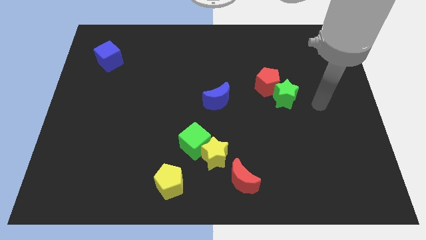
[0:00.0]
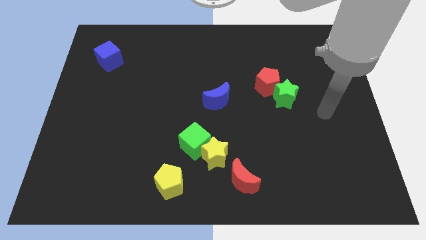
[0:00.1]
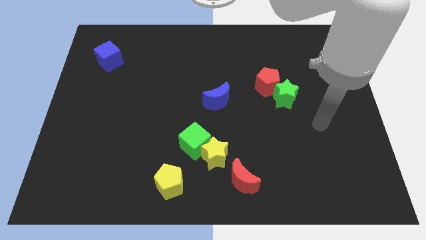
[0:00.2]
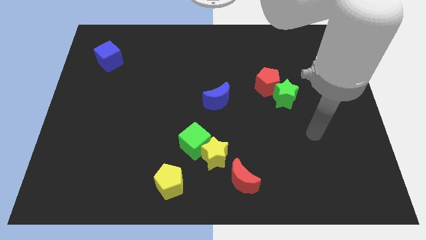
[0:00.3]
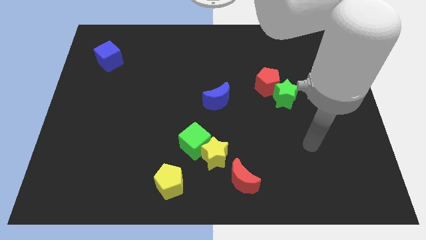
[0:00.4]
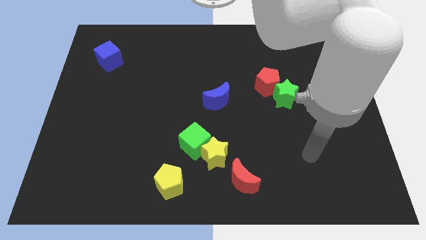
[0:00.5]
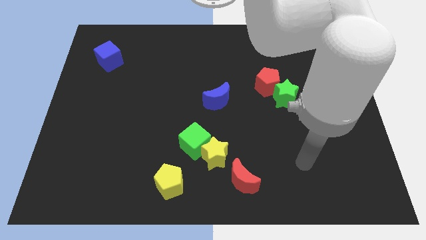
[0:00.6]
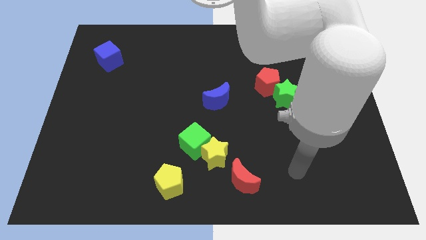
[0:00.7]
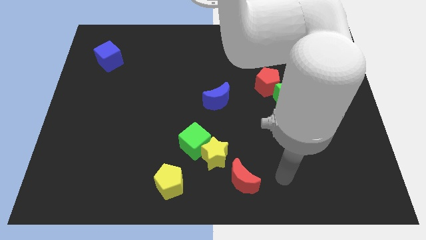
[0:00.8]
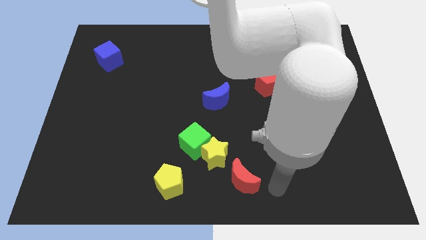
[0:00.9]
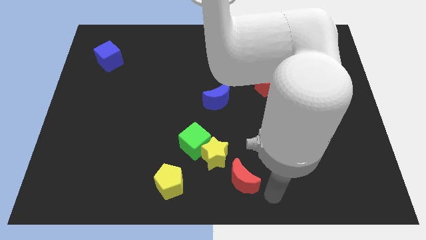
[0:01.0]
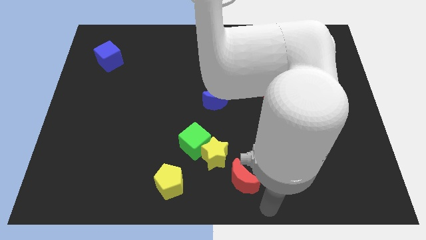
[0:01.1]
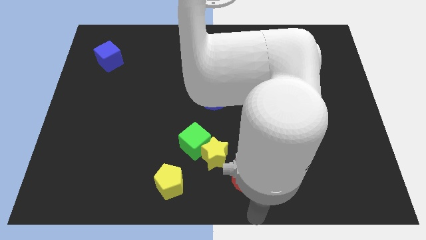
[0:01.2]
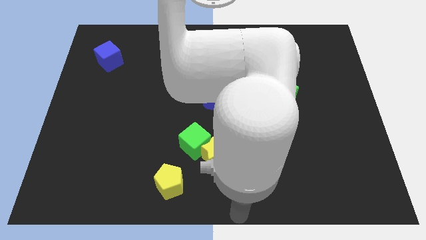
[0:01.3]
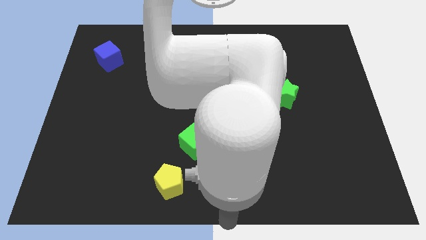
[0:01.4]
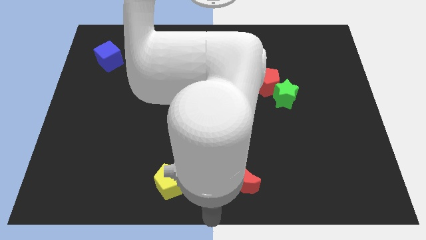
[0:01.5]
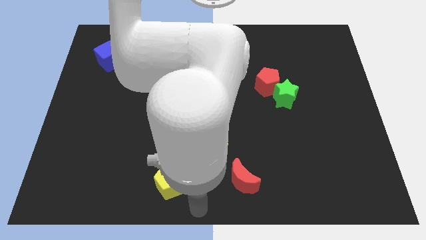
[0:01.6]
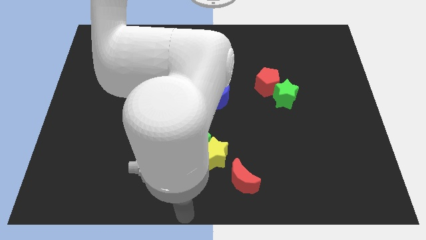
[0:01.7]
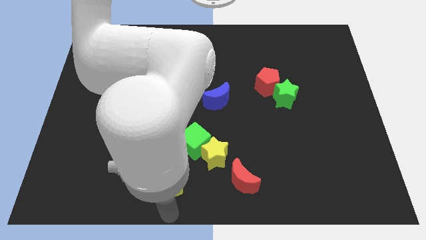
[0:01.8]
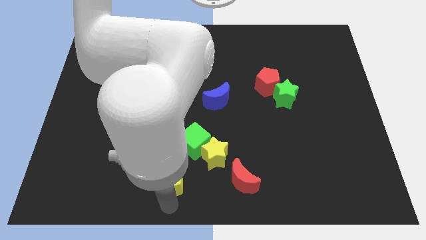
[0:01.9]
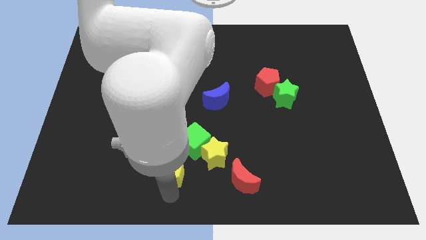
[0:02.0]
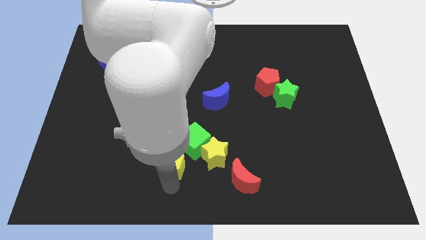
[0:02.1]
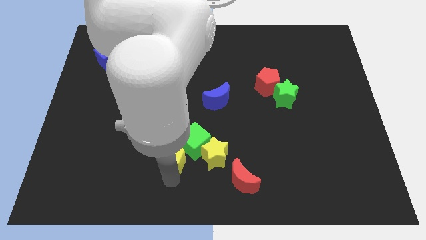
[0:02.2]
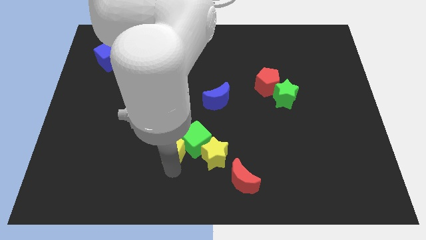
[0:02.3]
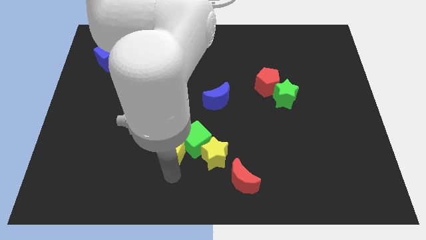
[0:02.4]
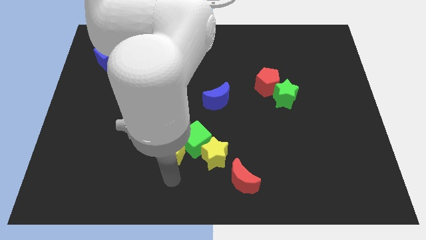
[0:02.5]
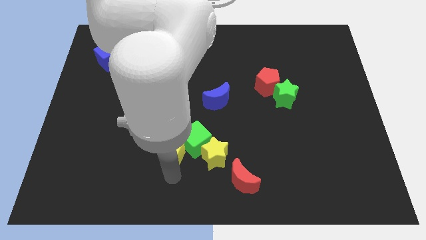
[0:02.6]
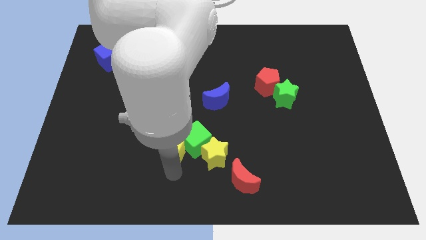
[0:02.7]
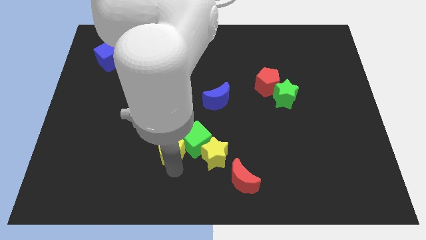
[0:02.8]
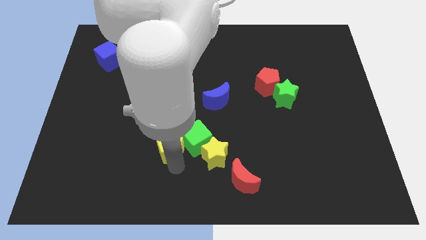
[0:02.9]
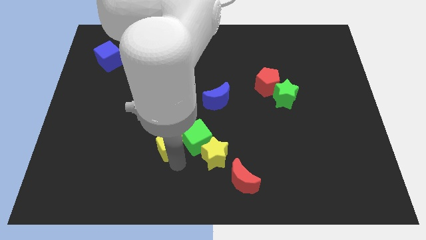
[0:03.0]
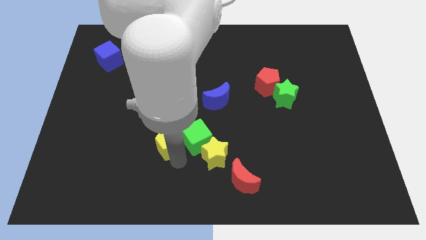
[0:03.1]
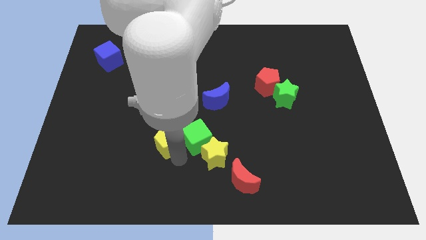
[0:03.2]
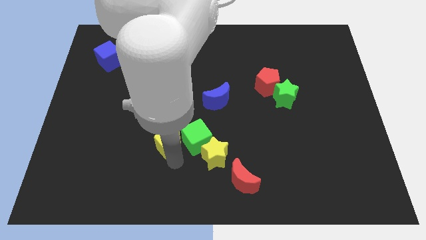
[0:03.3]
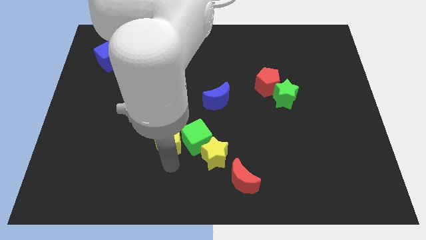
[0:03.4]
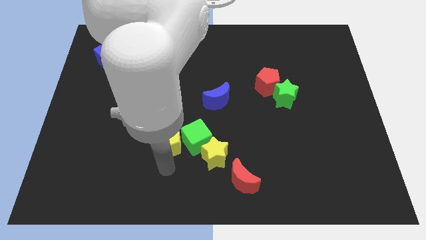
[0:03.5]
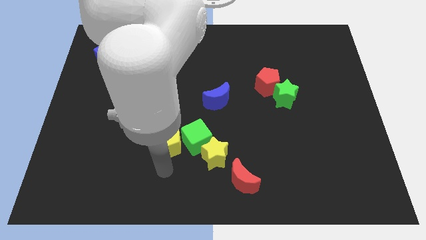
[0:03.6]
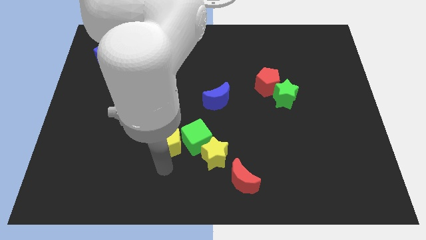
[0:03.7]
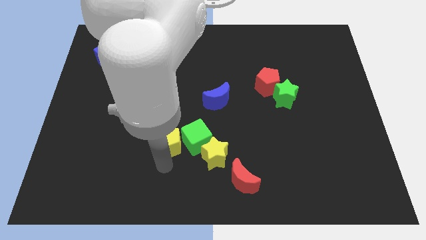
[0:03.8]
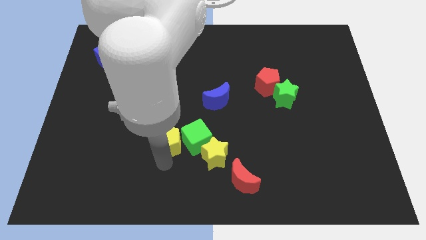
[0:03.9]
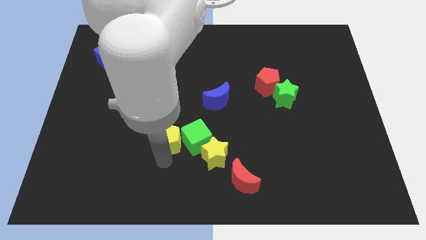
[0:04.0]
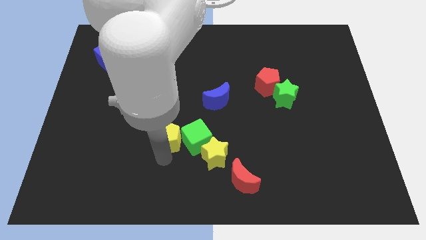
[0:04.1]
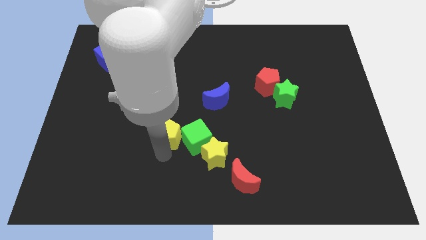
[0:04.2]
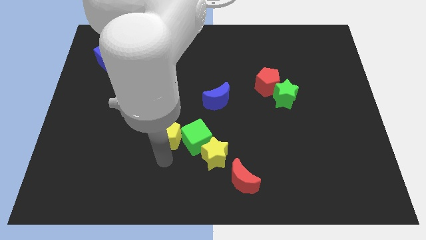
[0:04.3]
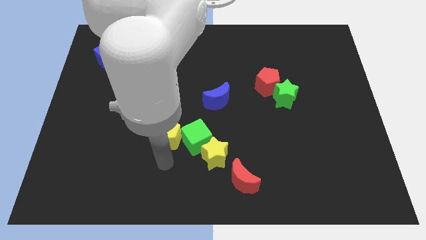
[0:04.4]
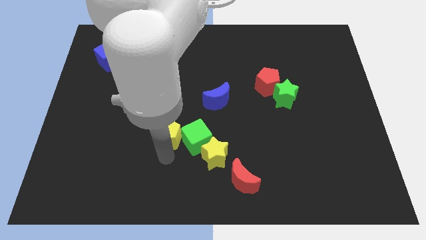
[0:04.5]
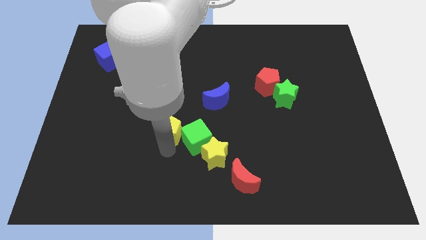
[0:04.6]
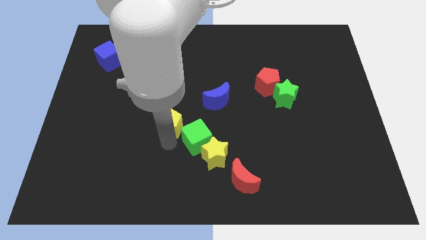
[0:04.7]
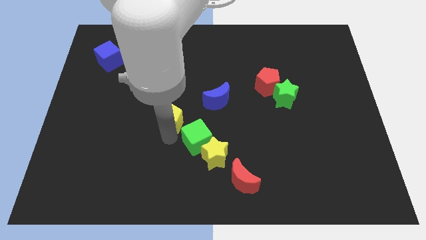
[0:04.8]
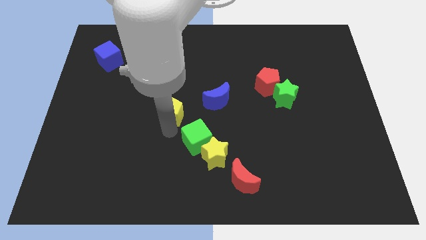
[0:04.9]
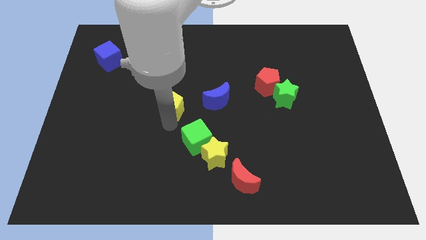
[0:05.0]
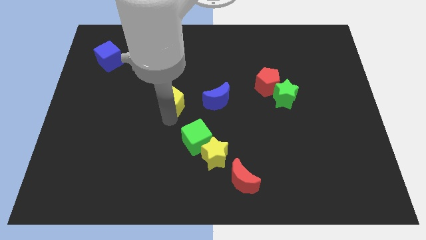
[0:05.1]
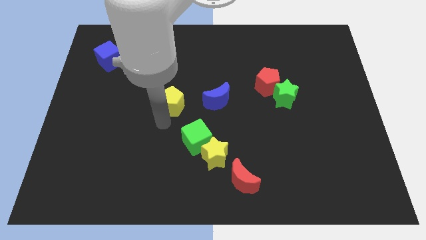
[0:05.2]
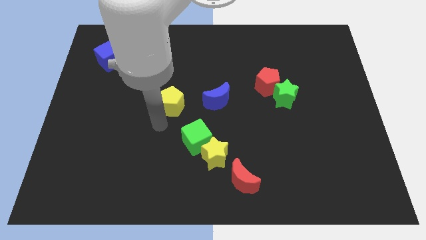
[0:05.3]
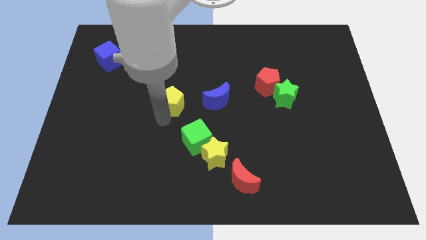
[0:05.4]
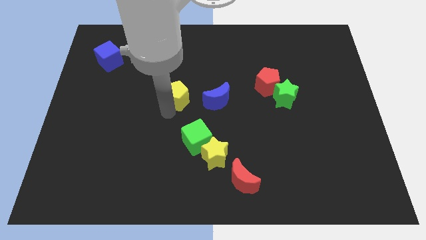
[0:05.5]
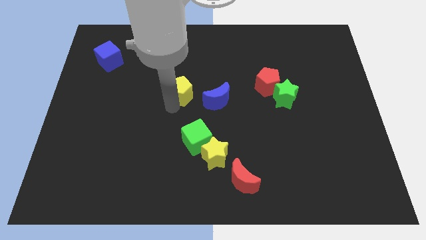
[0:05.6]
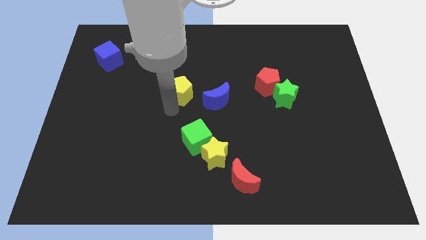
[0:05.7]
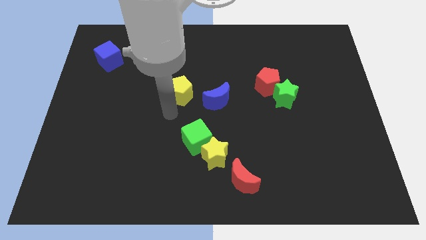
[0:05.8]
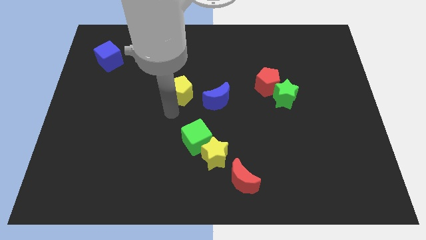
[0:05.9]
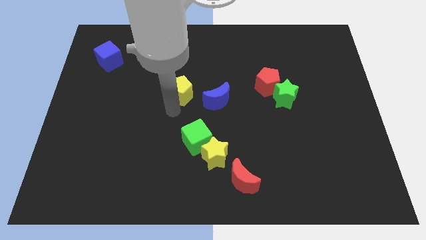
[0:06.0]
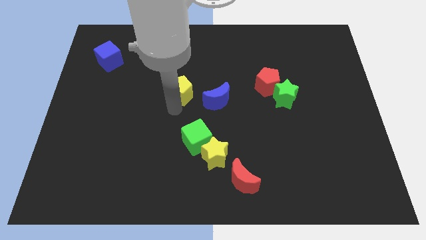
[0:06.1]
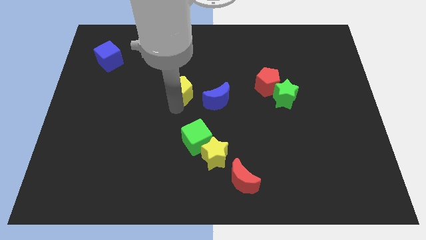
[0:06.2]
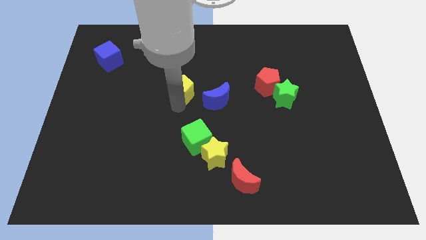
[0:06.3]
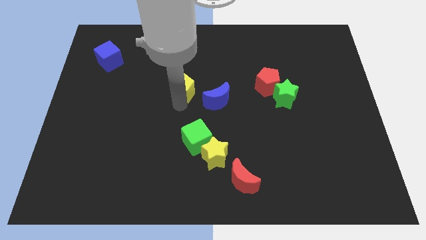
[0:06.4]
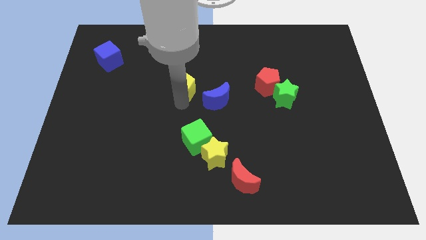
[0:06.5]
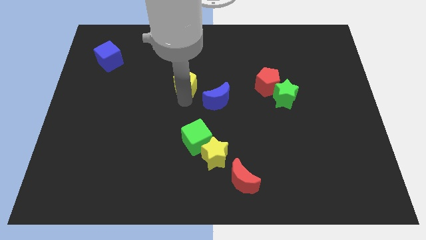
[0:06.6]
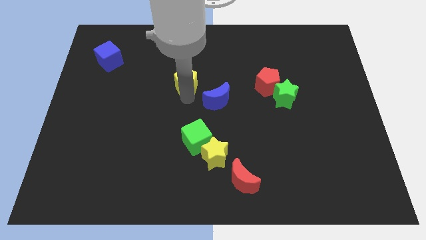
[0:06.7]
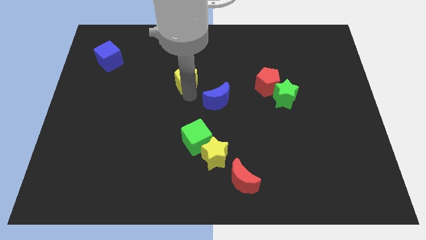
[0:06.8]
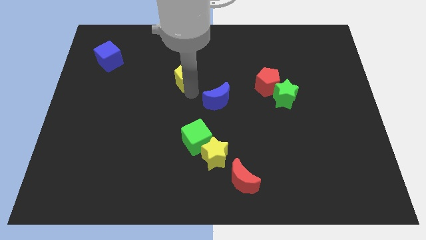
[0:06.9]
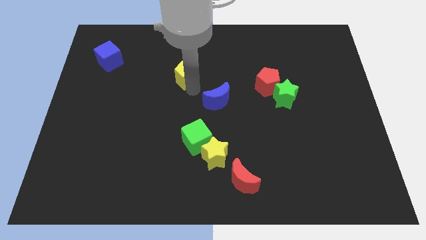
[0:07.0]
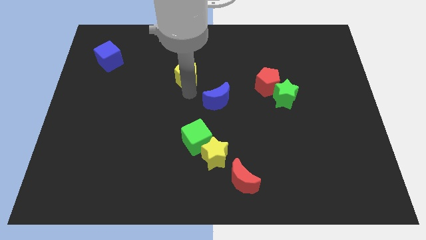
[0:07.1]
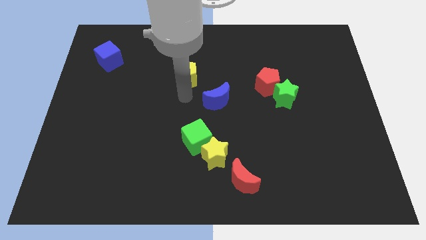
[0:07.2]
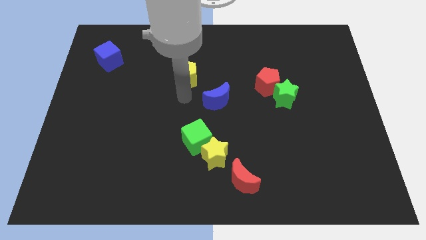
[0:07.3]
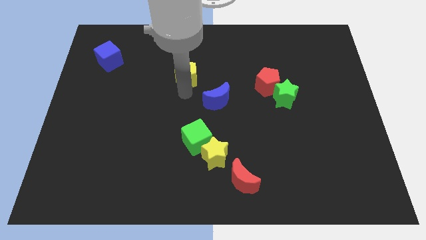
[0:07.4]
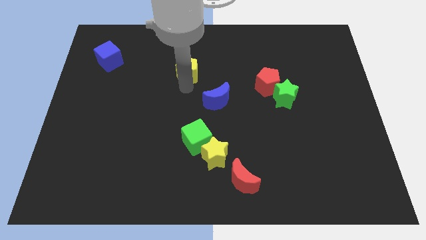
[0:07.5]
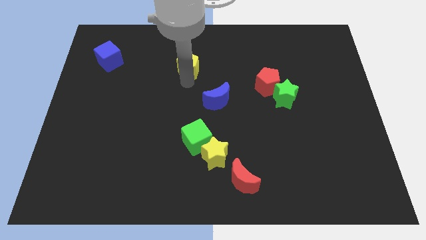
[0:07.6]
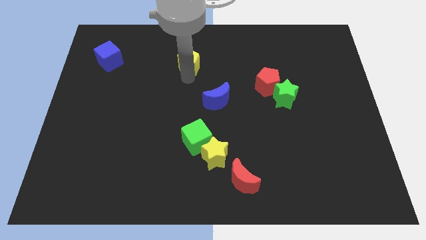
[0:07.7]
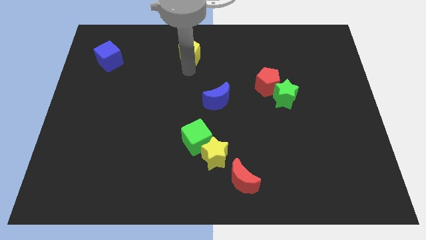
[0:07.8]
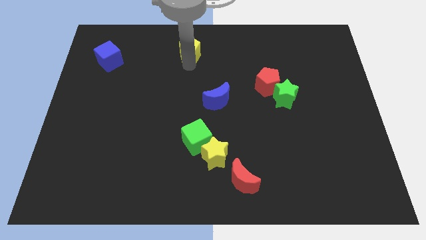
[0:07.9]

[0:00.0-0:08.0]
put the yellow pentagon to the towards your base
